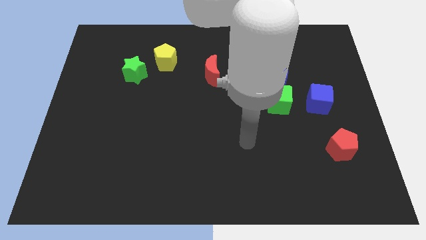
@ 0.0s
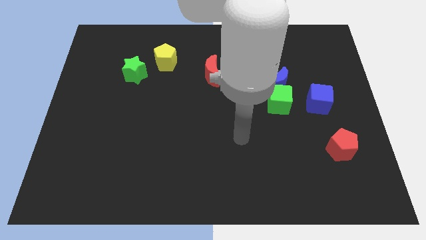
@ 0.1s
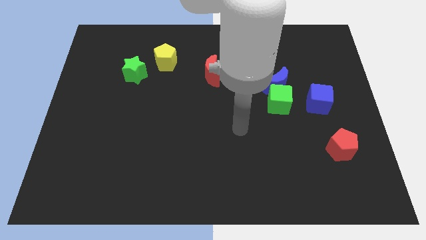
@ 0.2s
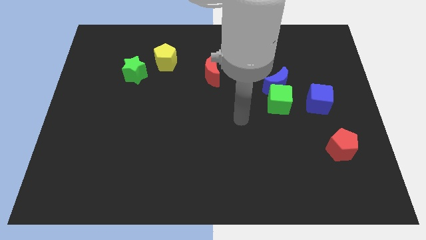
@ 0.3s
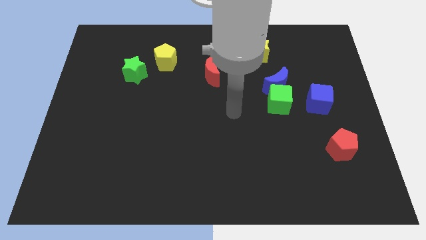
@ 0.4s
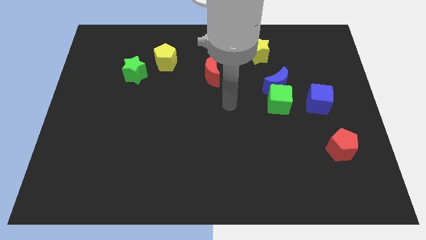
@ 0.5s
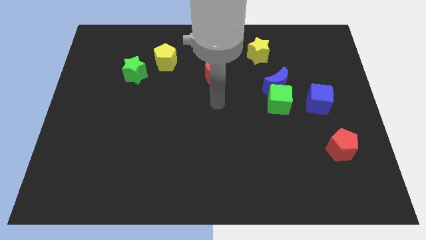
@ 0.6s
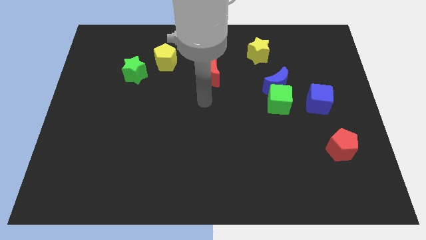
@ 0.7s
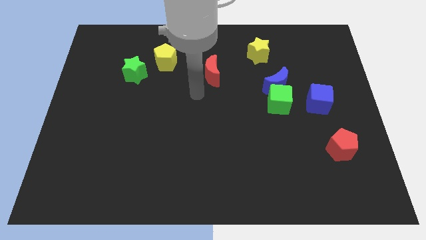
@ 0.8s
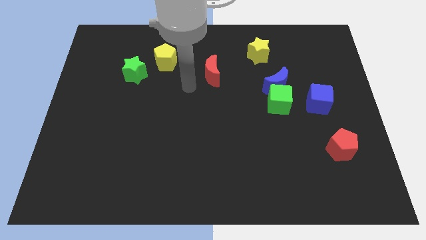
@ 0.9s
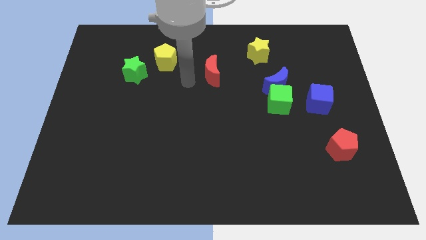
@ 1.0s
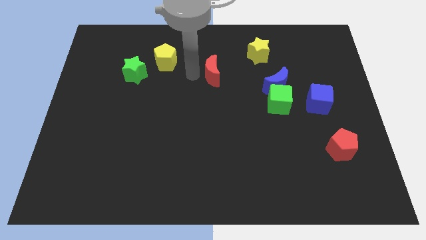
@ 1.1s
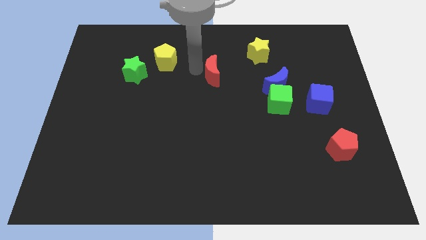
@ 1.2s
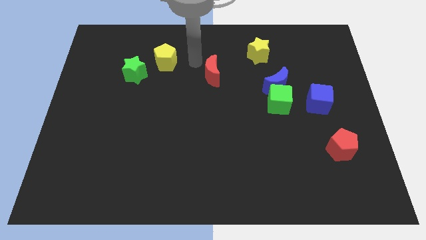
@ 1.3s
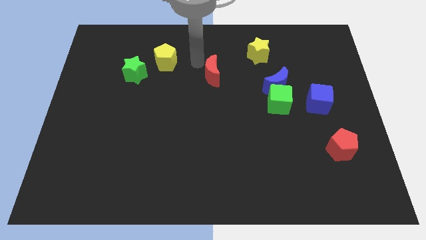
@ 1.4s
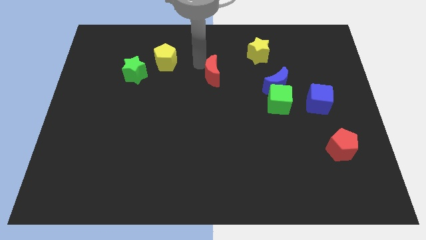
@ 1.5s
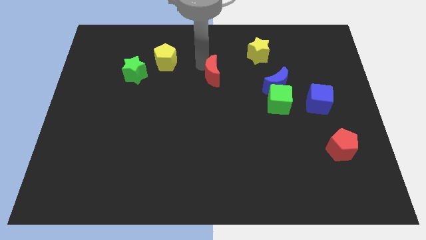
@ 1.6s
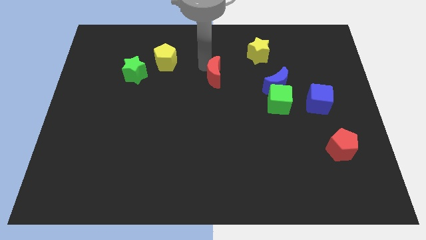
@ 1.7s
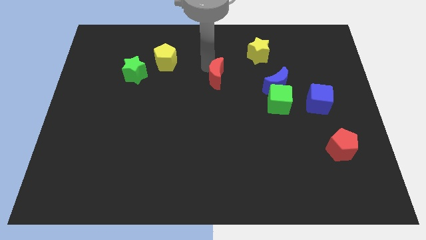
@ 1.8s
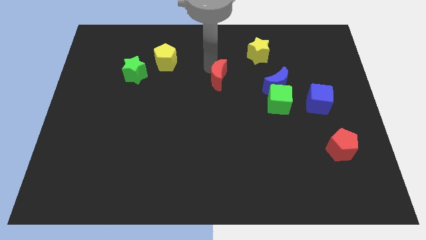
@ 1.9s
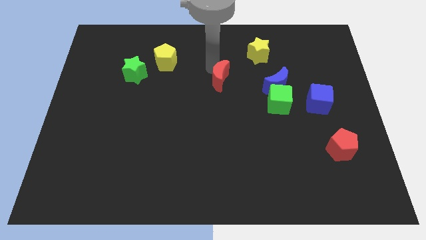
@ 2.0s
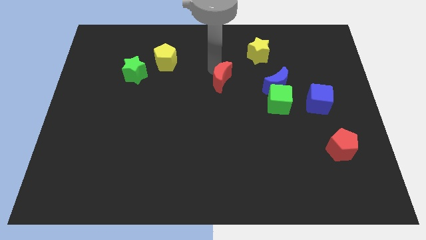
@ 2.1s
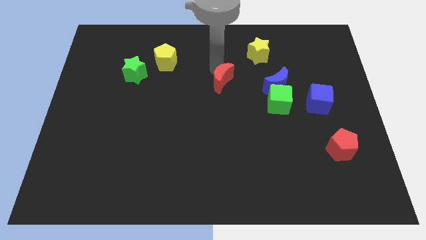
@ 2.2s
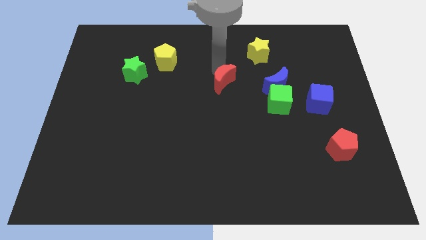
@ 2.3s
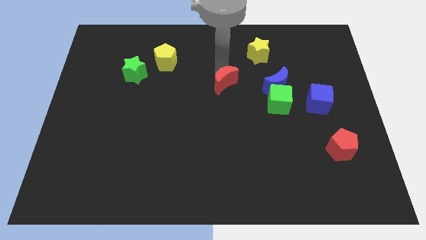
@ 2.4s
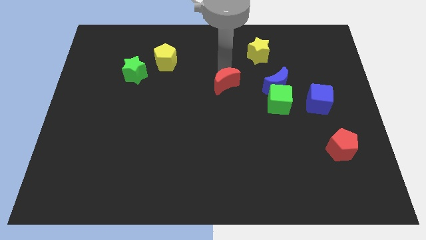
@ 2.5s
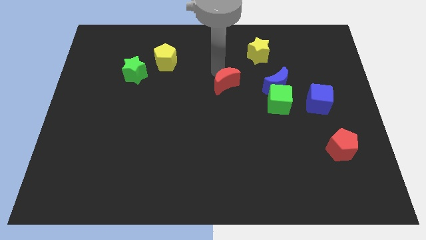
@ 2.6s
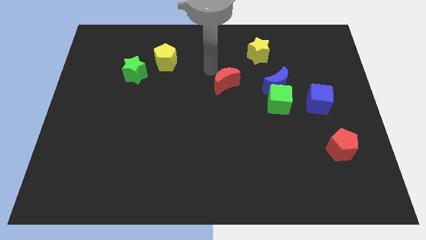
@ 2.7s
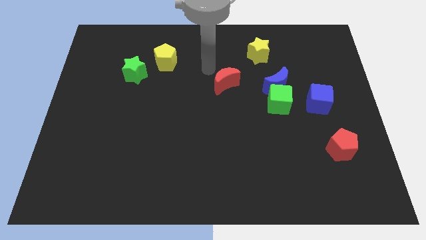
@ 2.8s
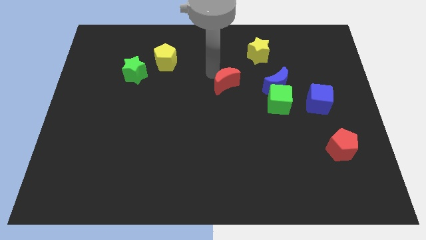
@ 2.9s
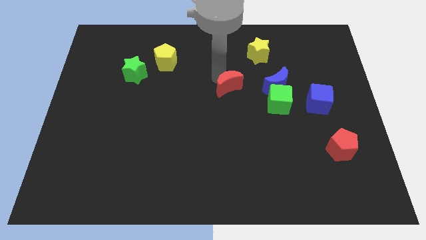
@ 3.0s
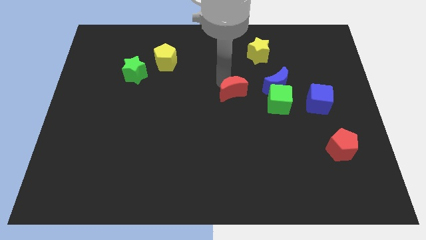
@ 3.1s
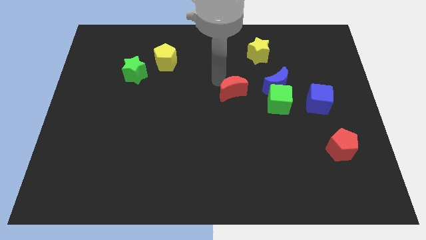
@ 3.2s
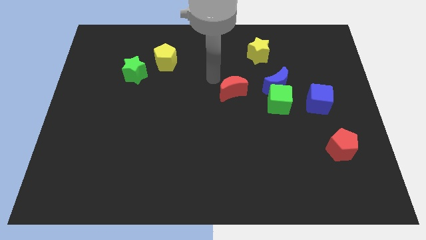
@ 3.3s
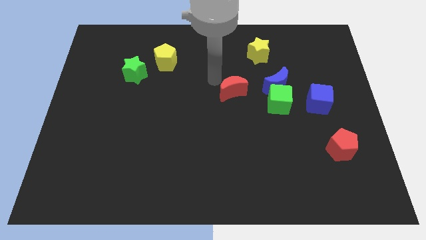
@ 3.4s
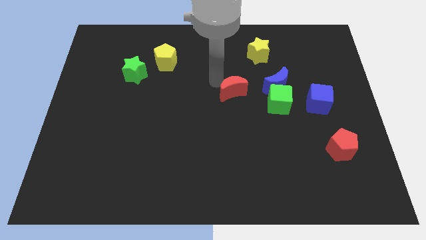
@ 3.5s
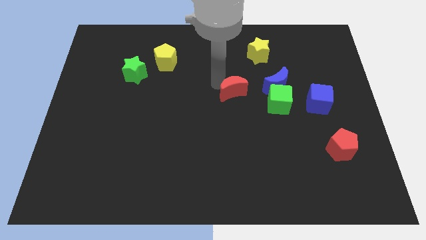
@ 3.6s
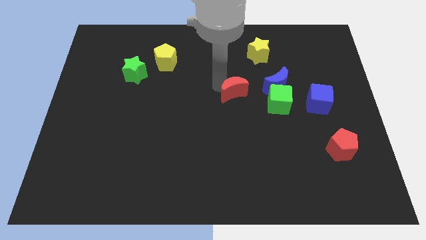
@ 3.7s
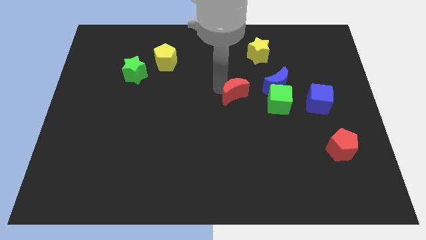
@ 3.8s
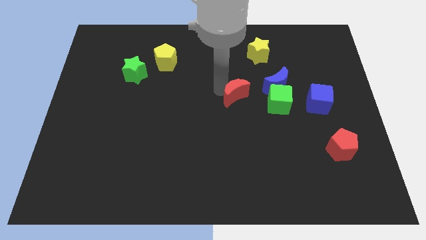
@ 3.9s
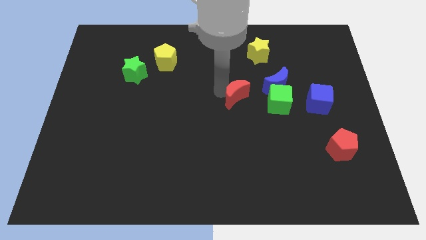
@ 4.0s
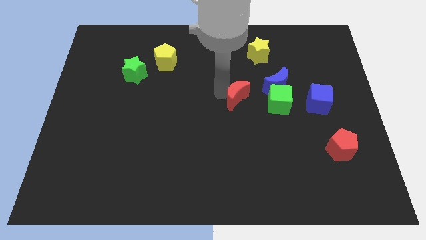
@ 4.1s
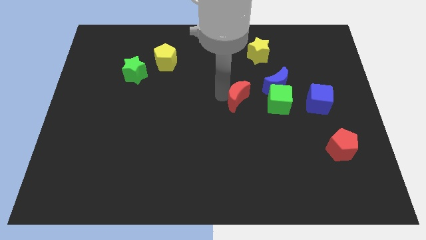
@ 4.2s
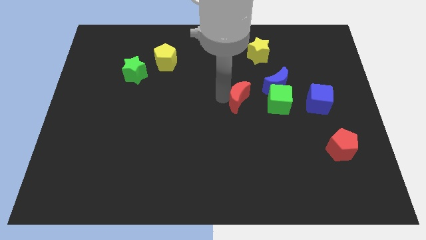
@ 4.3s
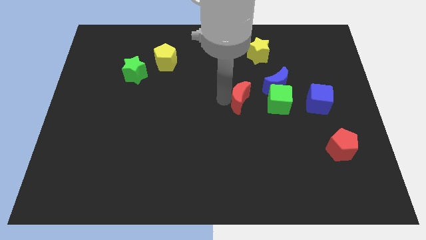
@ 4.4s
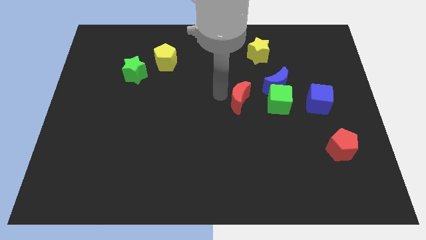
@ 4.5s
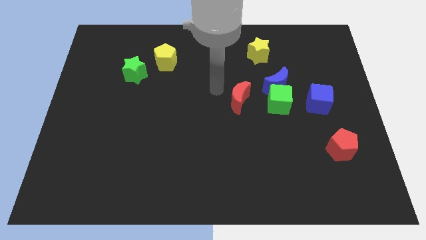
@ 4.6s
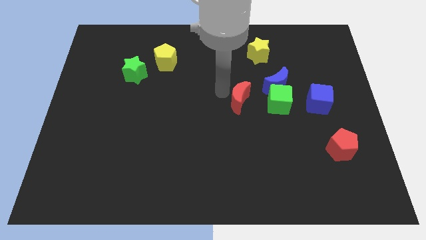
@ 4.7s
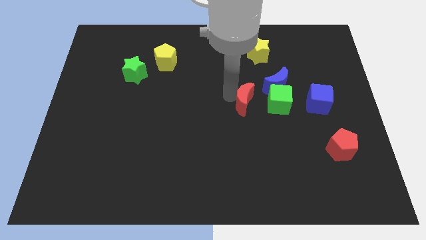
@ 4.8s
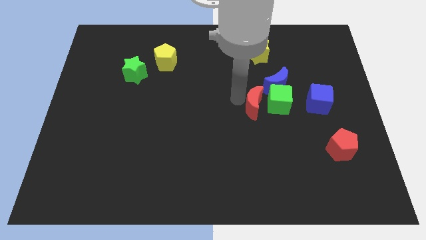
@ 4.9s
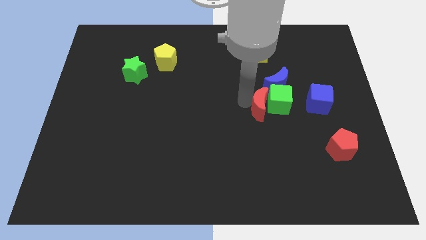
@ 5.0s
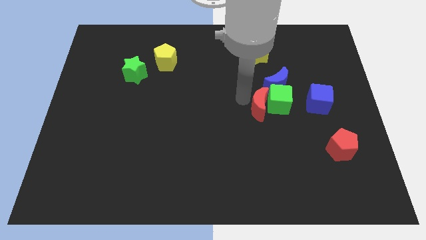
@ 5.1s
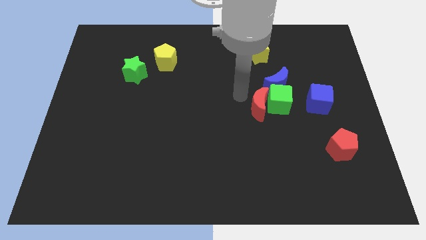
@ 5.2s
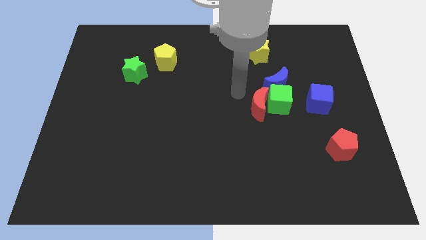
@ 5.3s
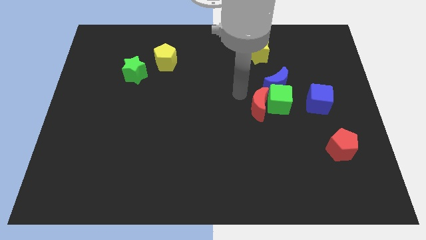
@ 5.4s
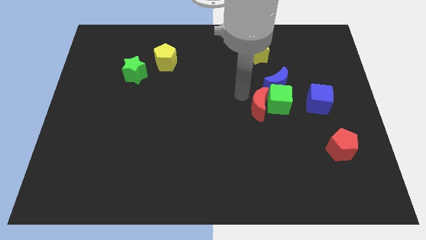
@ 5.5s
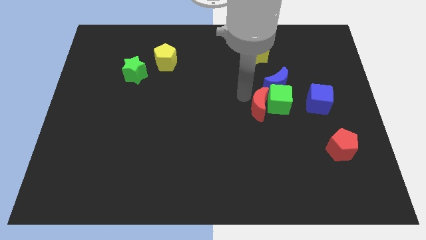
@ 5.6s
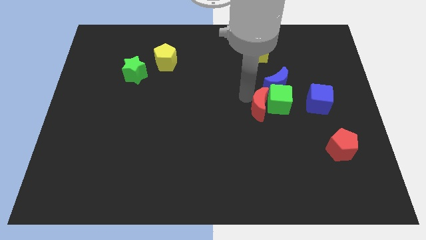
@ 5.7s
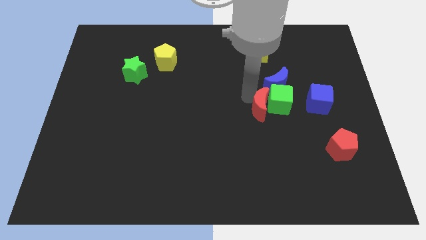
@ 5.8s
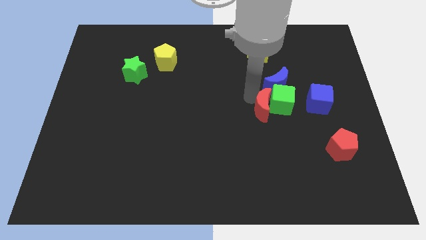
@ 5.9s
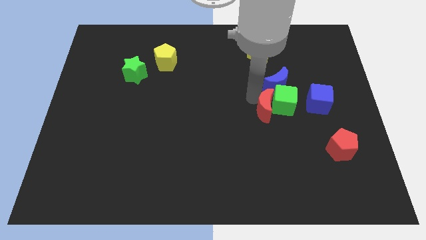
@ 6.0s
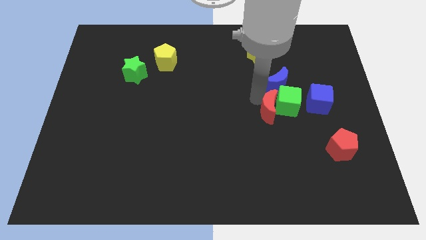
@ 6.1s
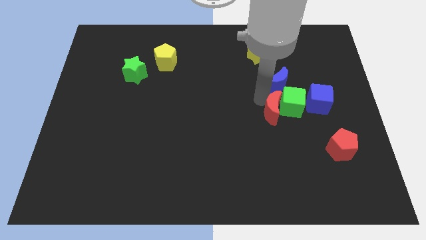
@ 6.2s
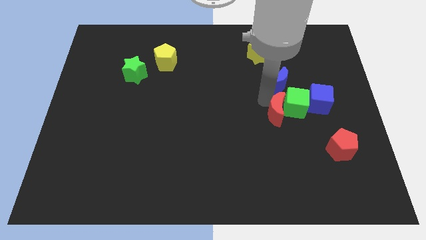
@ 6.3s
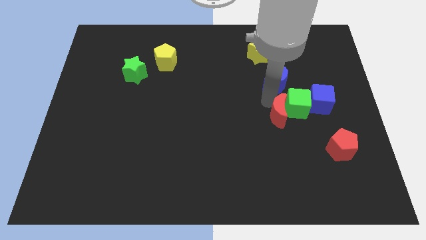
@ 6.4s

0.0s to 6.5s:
slide the red moon down and then to the right

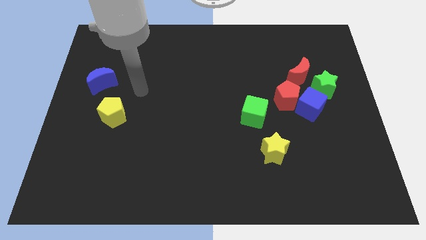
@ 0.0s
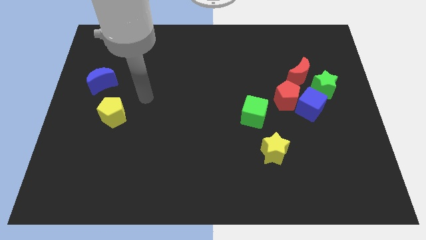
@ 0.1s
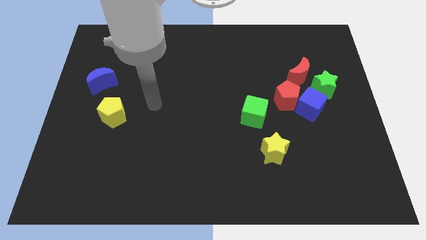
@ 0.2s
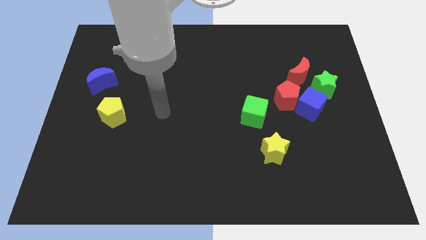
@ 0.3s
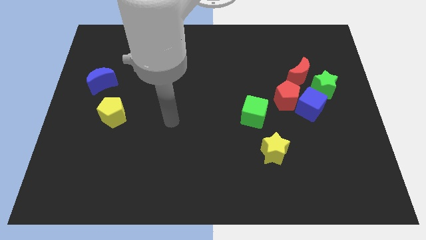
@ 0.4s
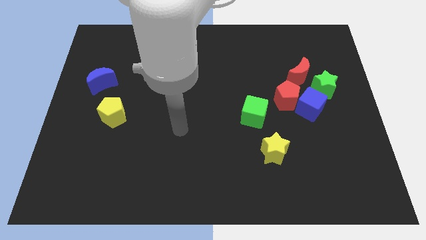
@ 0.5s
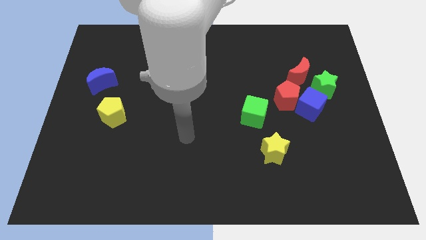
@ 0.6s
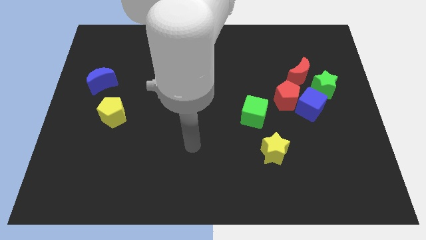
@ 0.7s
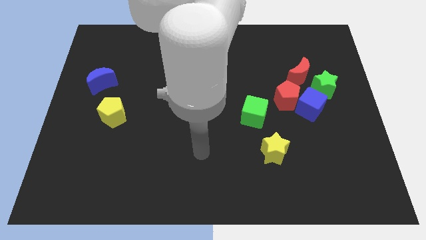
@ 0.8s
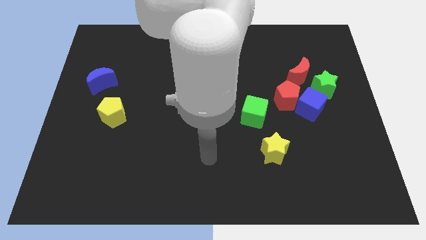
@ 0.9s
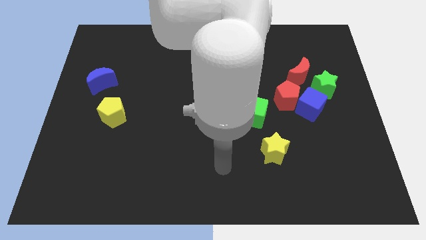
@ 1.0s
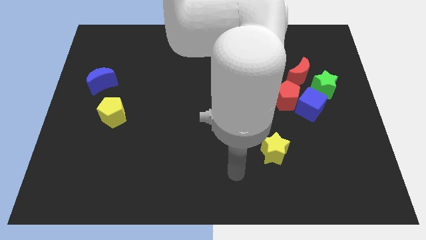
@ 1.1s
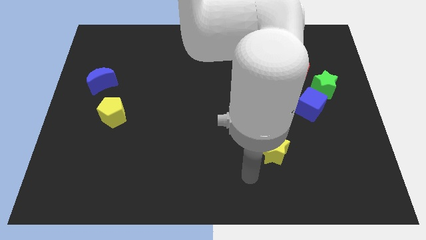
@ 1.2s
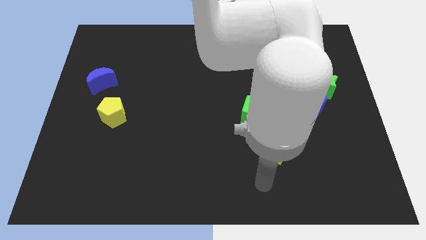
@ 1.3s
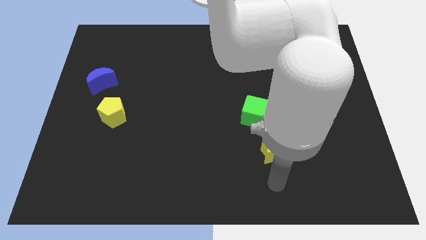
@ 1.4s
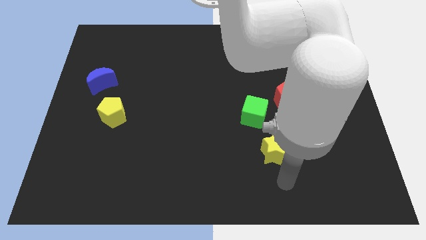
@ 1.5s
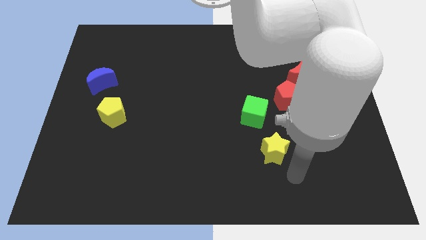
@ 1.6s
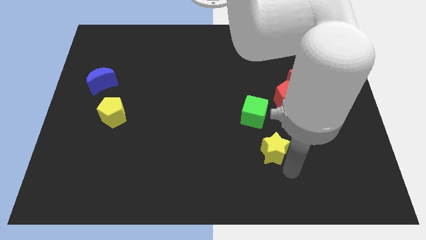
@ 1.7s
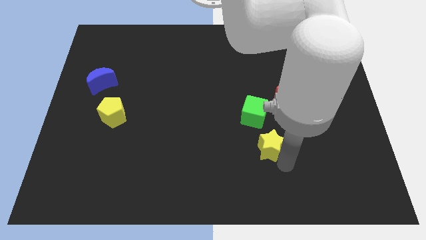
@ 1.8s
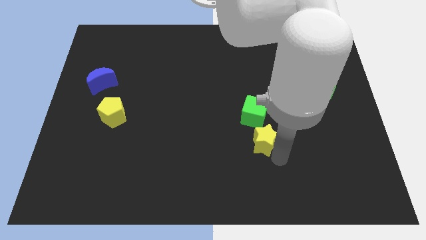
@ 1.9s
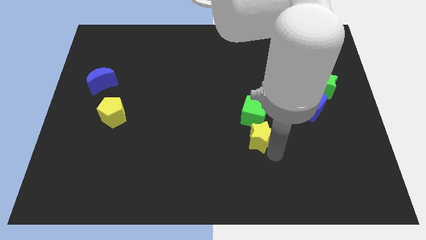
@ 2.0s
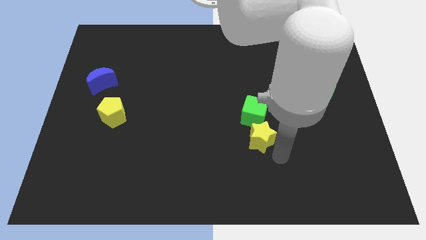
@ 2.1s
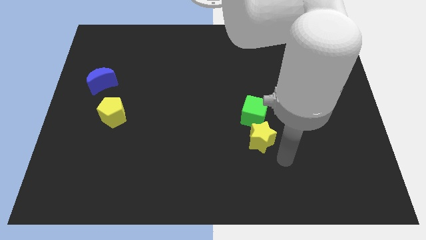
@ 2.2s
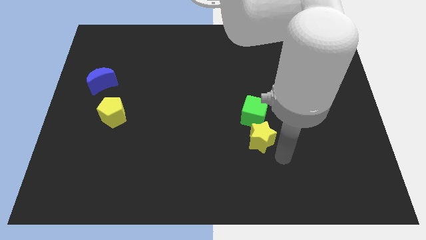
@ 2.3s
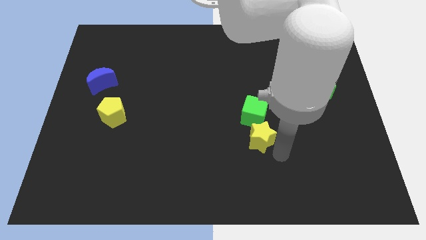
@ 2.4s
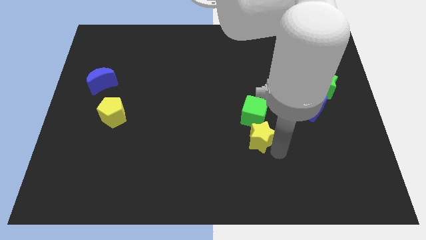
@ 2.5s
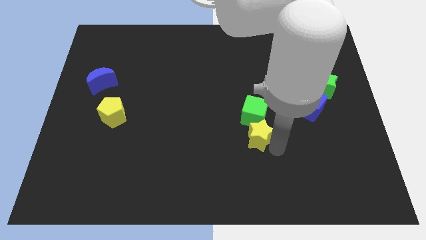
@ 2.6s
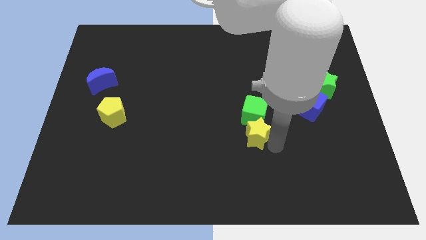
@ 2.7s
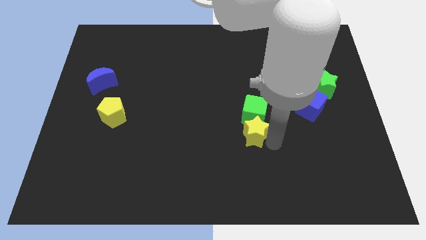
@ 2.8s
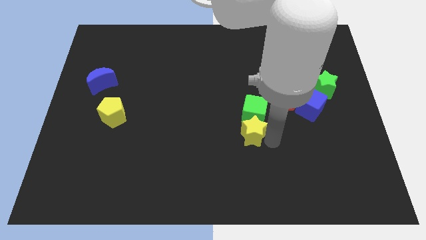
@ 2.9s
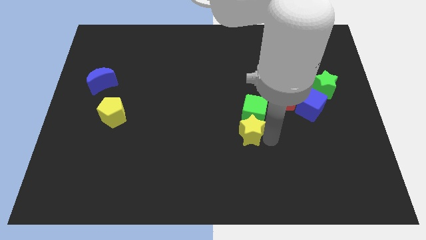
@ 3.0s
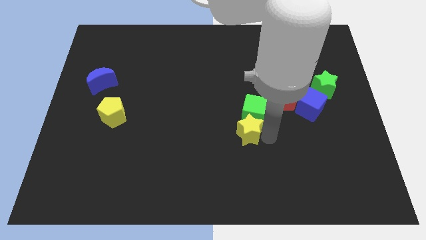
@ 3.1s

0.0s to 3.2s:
push the yellow star upwards and left diagonally slightly
